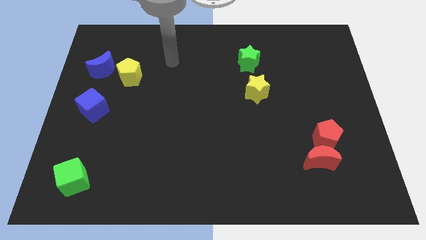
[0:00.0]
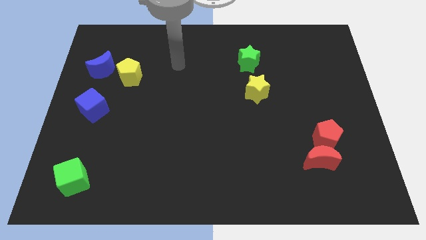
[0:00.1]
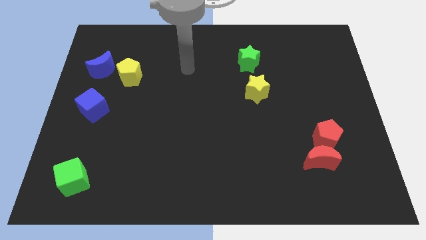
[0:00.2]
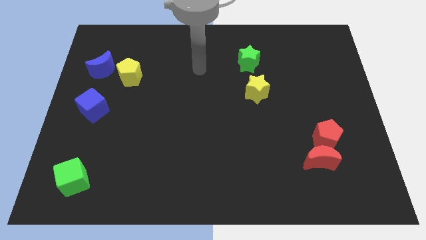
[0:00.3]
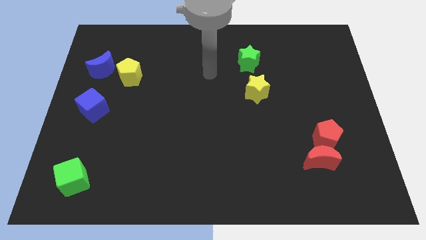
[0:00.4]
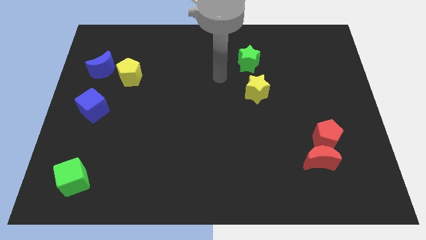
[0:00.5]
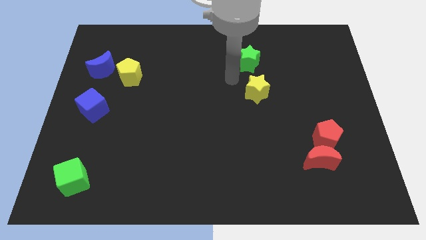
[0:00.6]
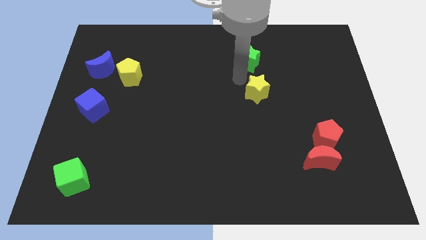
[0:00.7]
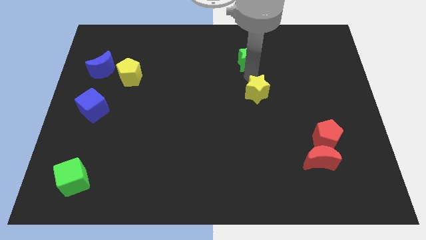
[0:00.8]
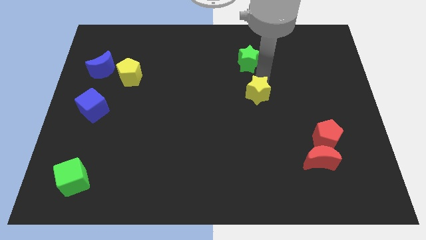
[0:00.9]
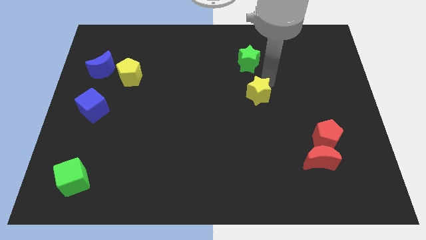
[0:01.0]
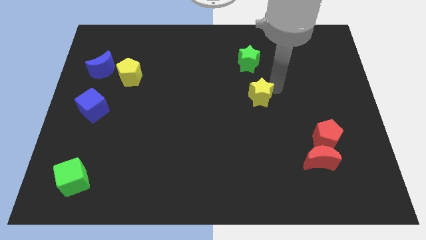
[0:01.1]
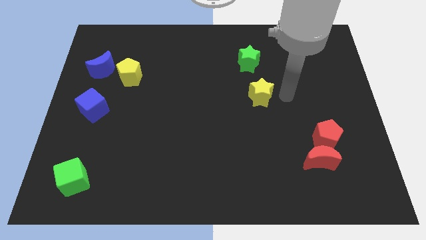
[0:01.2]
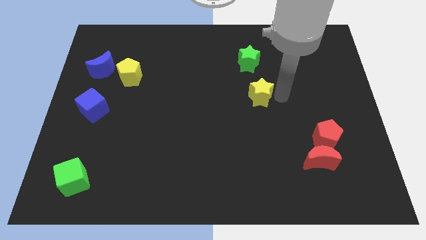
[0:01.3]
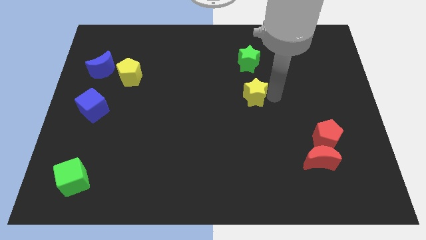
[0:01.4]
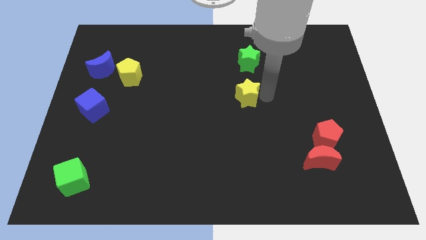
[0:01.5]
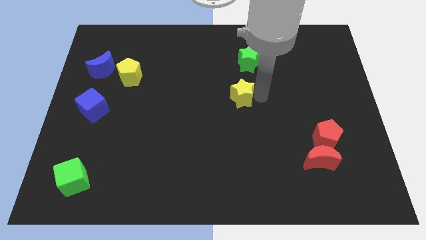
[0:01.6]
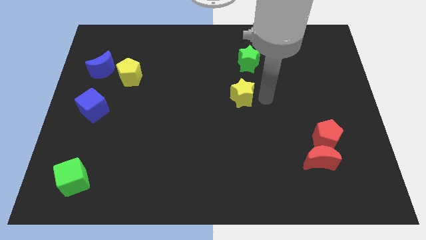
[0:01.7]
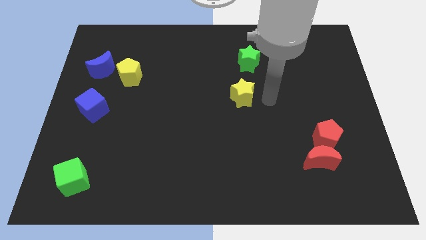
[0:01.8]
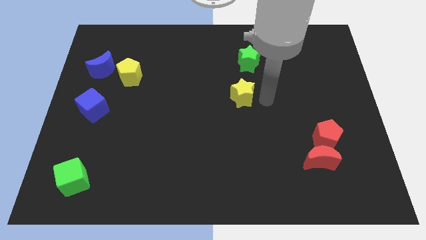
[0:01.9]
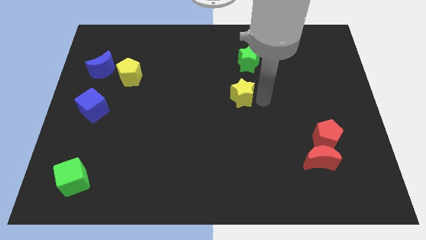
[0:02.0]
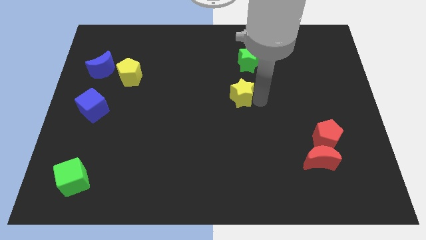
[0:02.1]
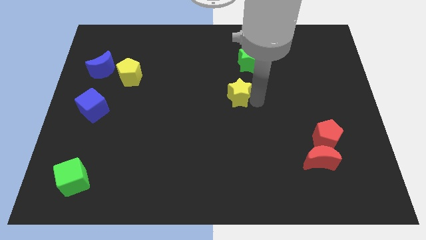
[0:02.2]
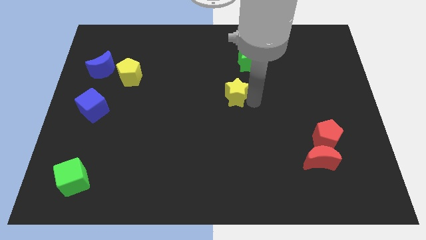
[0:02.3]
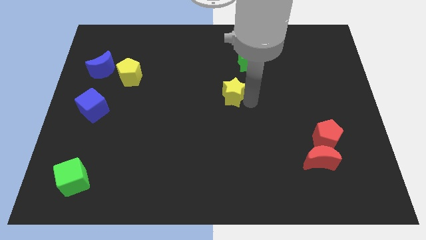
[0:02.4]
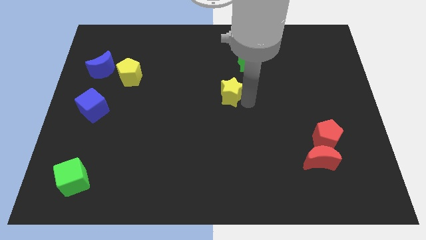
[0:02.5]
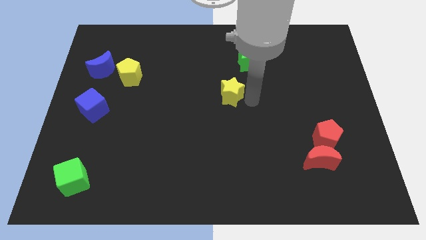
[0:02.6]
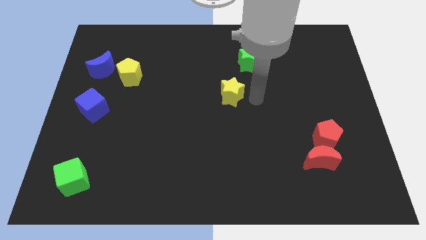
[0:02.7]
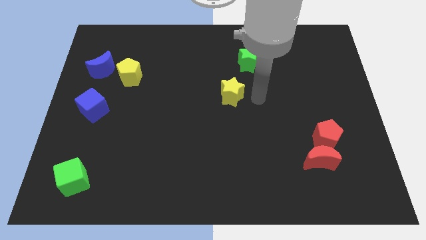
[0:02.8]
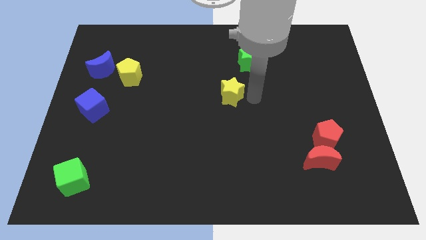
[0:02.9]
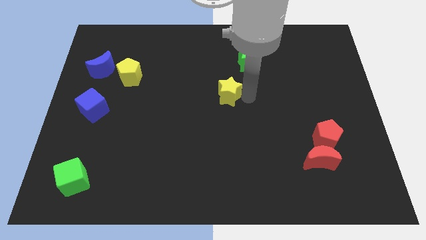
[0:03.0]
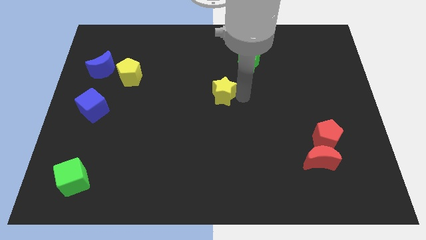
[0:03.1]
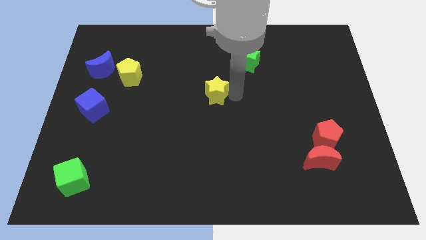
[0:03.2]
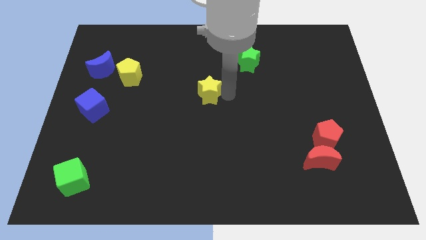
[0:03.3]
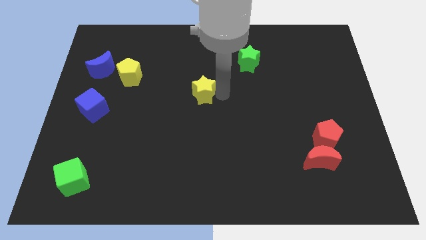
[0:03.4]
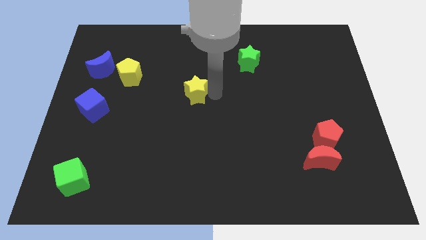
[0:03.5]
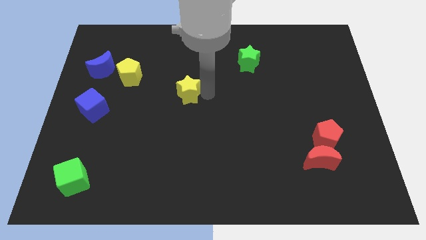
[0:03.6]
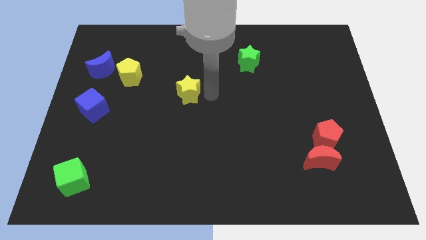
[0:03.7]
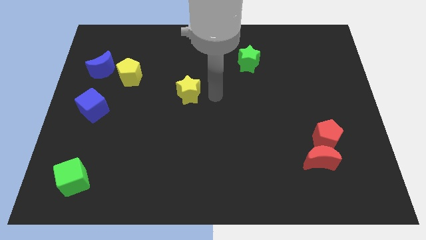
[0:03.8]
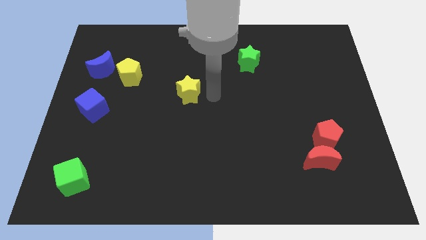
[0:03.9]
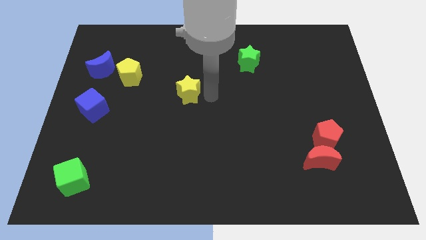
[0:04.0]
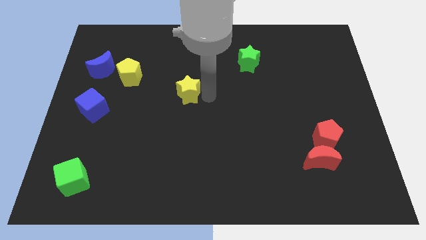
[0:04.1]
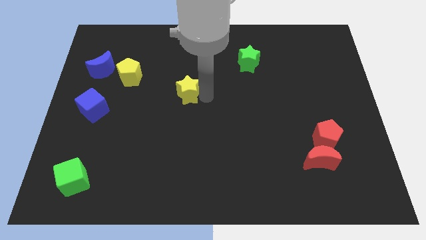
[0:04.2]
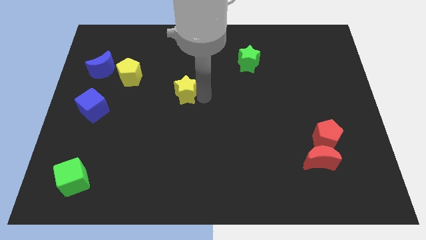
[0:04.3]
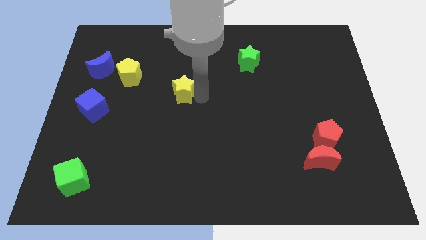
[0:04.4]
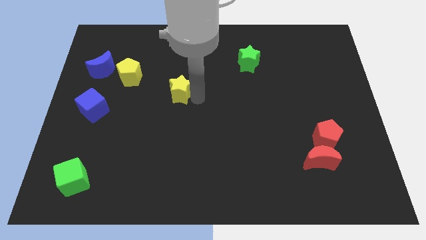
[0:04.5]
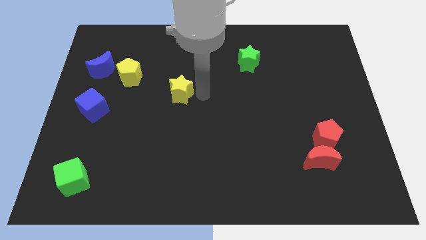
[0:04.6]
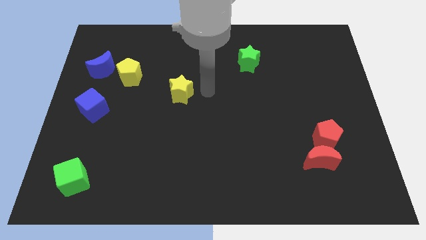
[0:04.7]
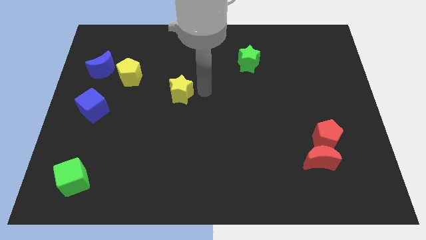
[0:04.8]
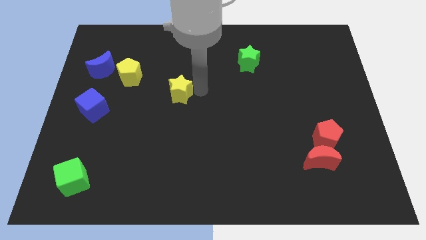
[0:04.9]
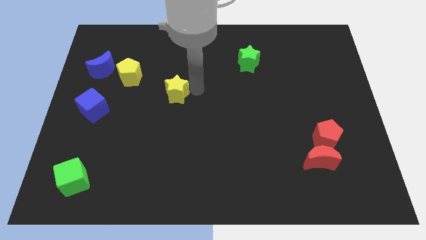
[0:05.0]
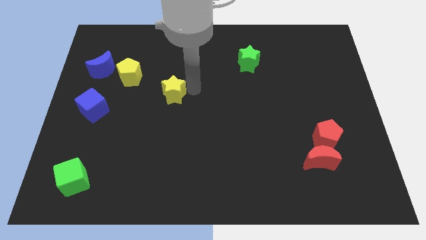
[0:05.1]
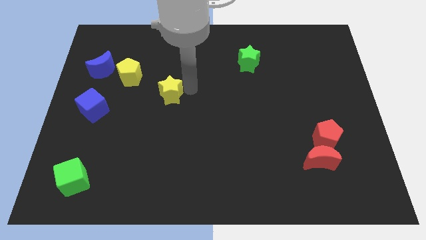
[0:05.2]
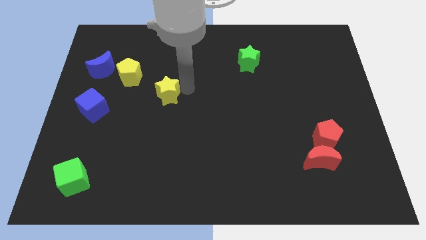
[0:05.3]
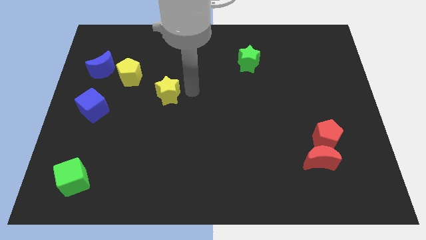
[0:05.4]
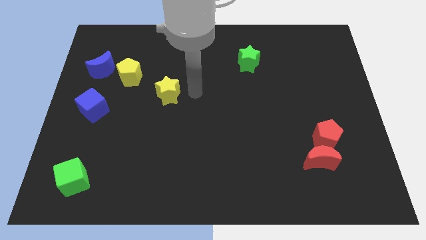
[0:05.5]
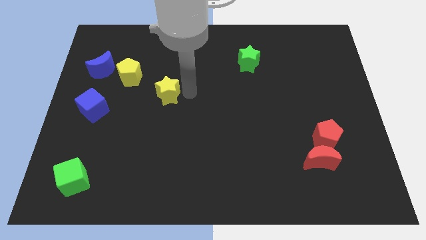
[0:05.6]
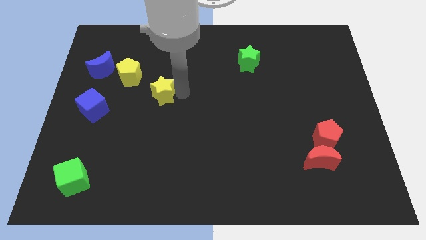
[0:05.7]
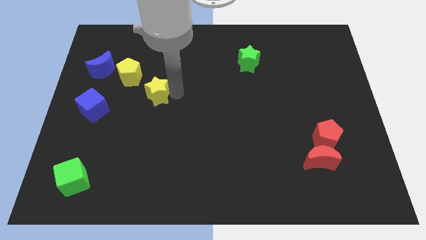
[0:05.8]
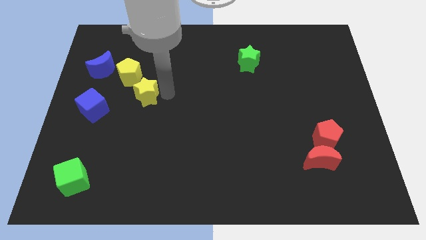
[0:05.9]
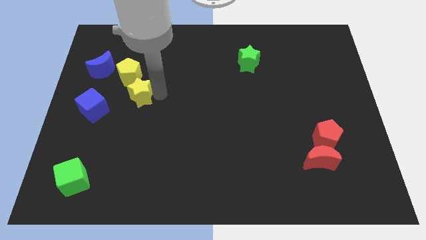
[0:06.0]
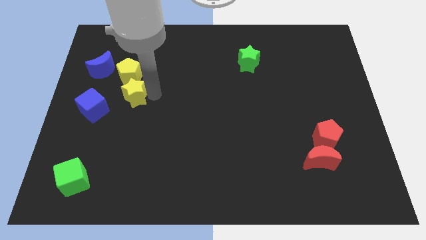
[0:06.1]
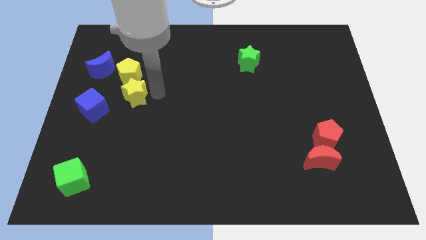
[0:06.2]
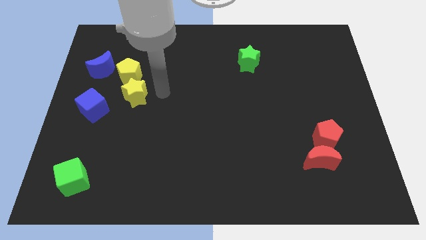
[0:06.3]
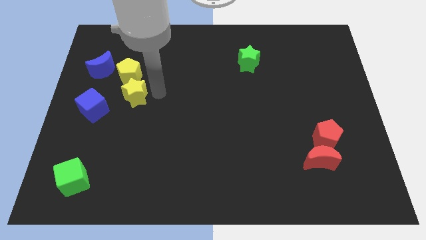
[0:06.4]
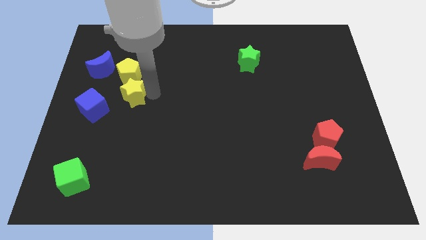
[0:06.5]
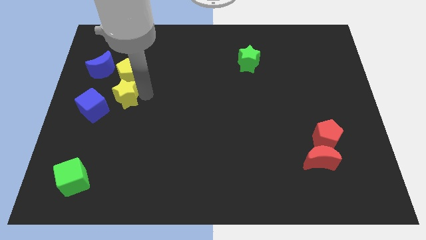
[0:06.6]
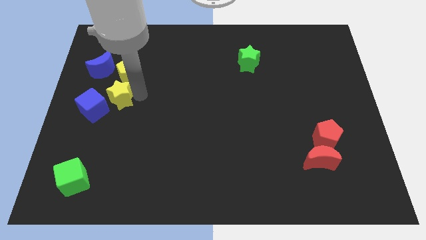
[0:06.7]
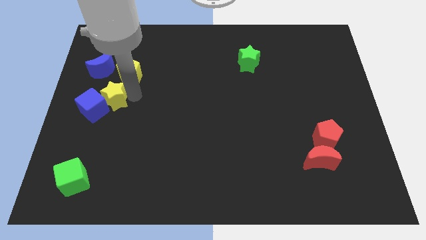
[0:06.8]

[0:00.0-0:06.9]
move the yellow star to the blue cube

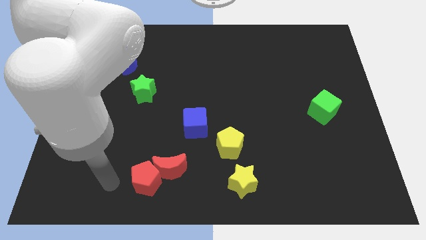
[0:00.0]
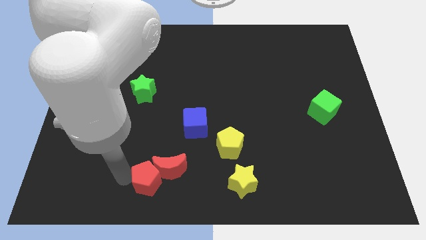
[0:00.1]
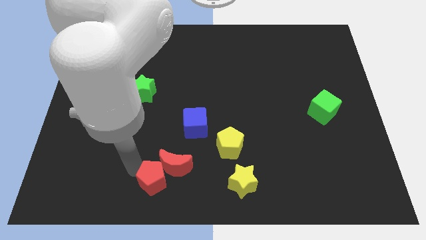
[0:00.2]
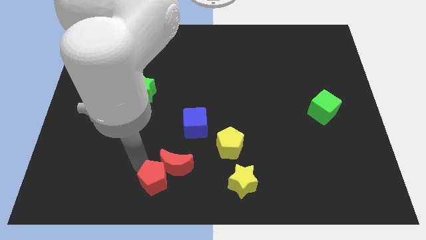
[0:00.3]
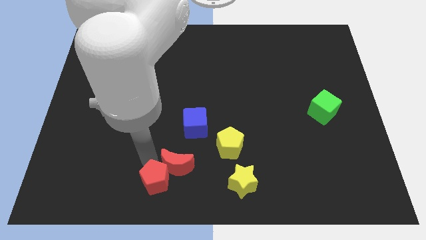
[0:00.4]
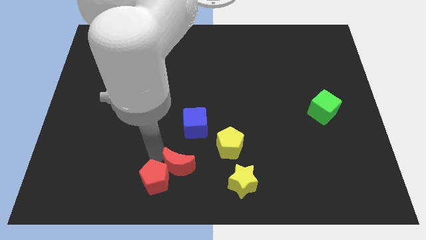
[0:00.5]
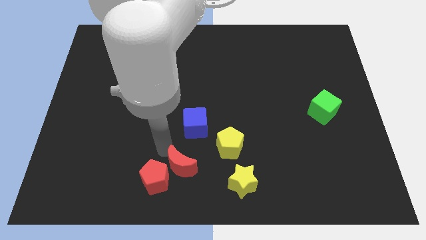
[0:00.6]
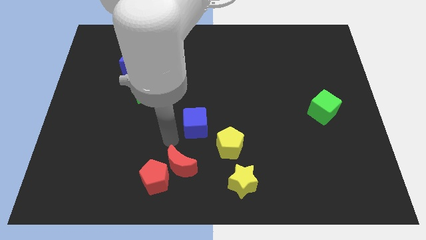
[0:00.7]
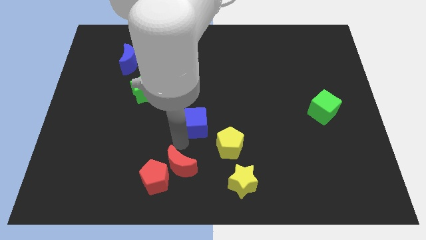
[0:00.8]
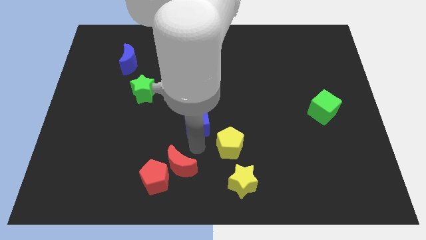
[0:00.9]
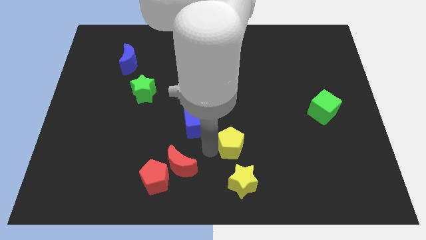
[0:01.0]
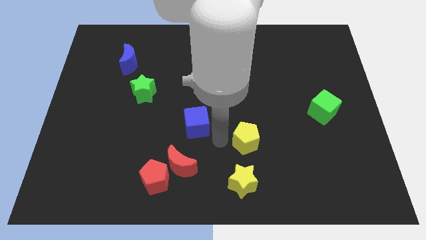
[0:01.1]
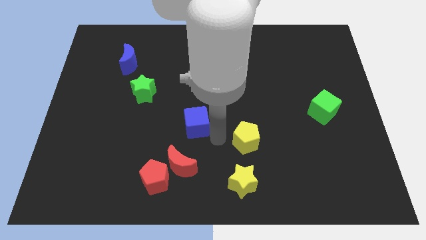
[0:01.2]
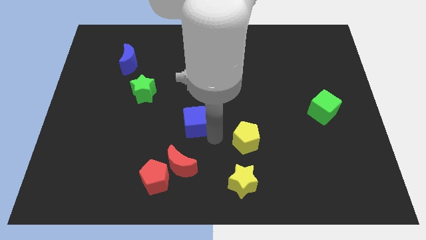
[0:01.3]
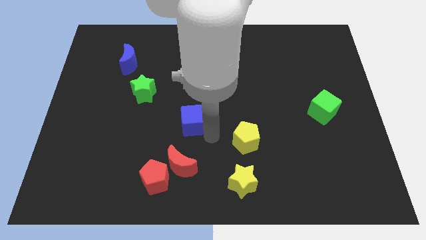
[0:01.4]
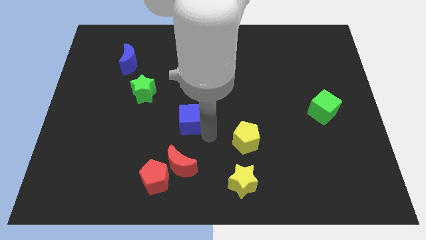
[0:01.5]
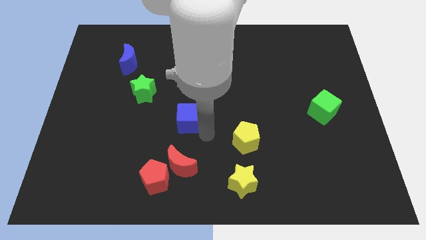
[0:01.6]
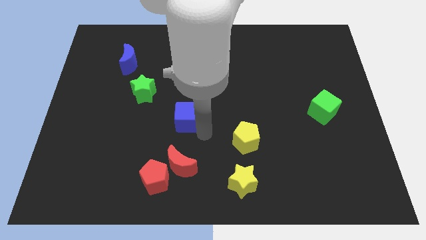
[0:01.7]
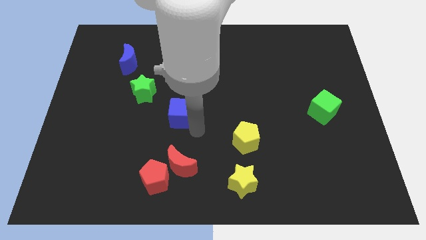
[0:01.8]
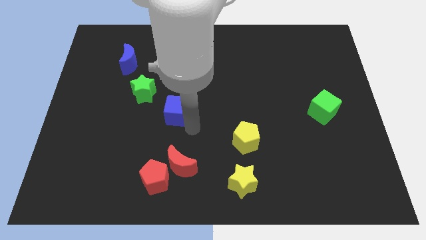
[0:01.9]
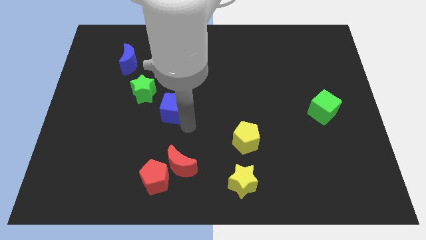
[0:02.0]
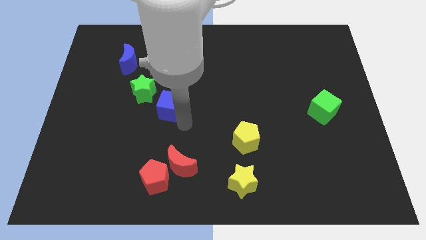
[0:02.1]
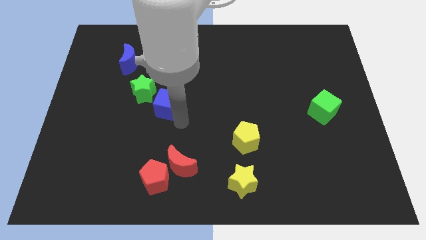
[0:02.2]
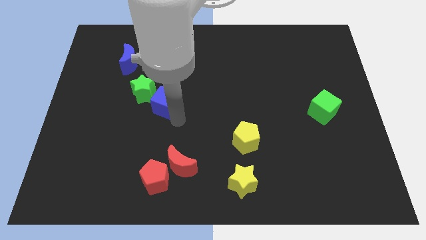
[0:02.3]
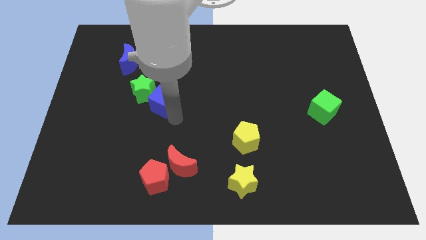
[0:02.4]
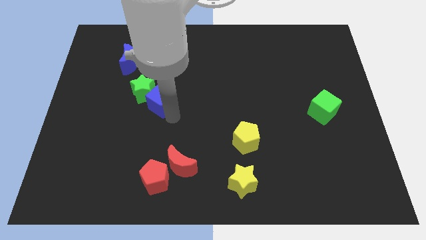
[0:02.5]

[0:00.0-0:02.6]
put the blue cube to the green star
